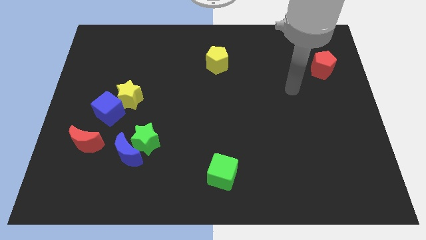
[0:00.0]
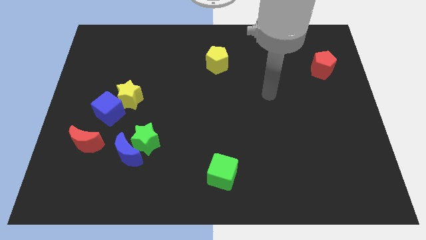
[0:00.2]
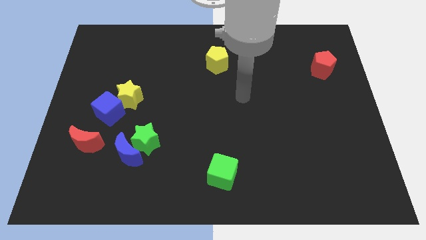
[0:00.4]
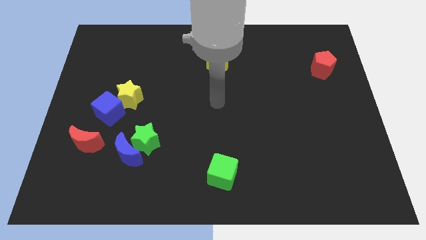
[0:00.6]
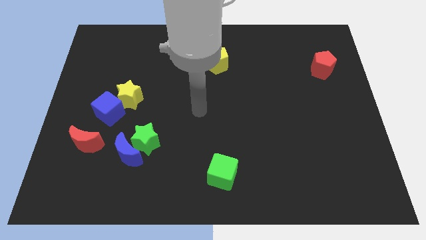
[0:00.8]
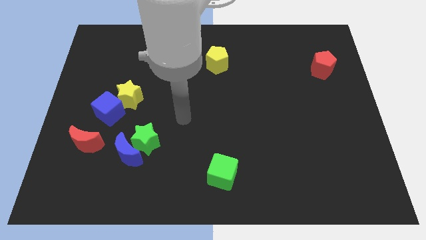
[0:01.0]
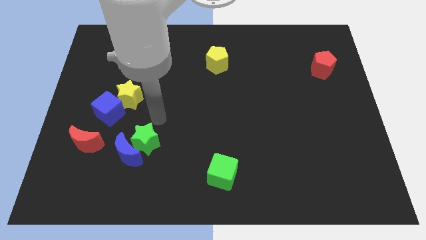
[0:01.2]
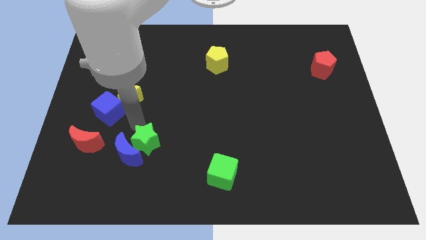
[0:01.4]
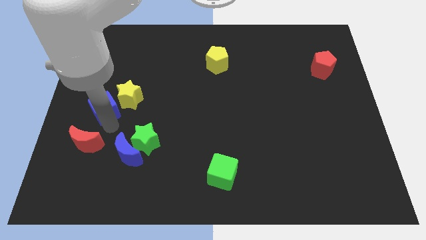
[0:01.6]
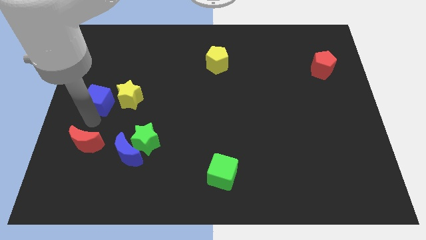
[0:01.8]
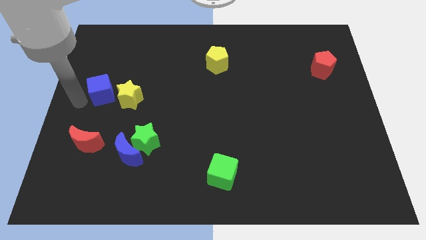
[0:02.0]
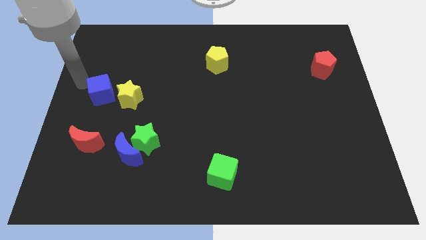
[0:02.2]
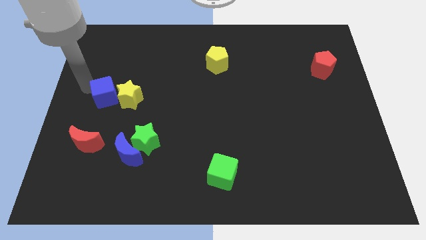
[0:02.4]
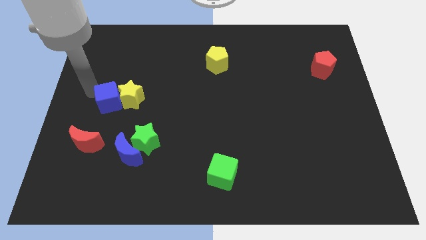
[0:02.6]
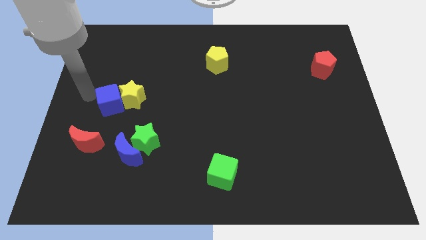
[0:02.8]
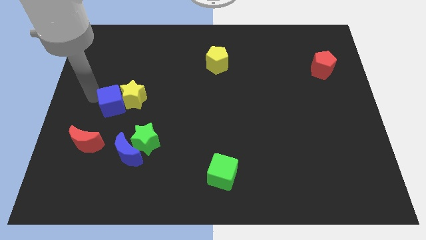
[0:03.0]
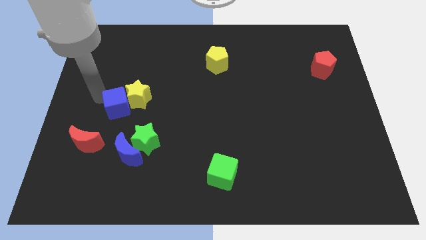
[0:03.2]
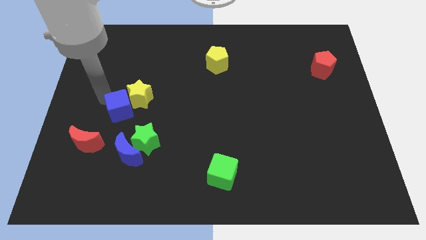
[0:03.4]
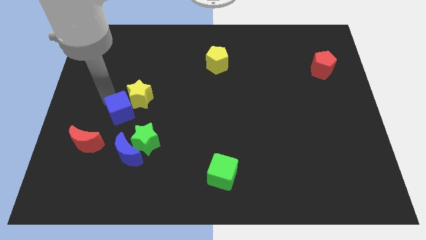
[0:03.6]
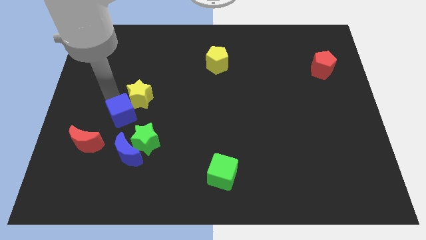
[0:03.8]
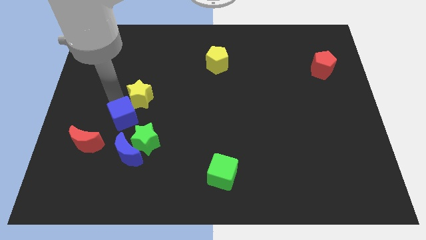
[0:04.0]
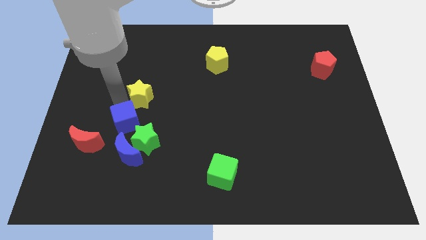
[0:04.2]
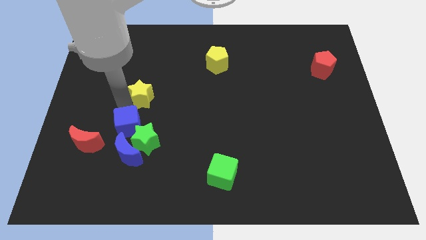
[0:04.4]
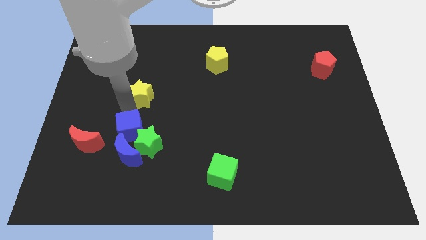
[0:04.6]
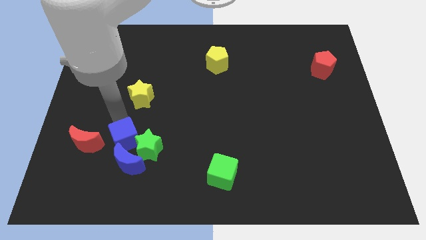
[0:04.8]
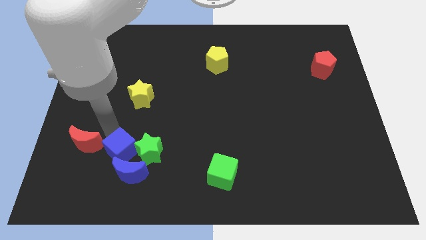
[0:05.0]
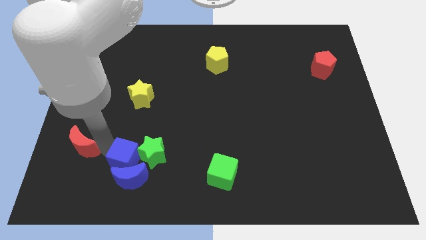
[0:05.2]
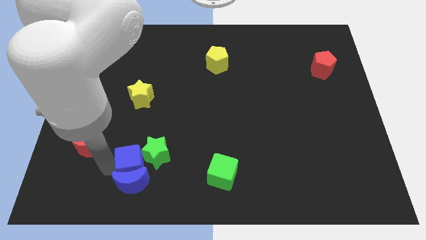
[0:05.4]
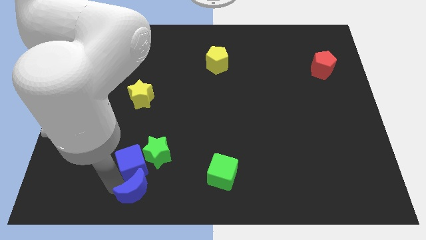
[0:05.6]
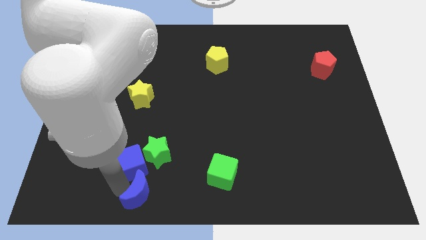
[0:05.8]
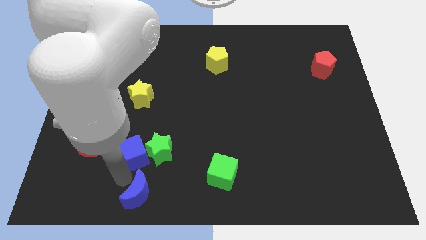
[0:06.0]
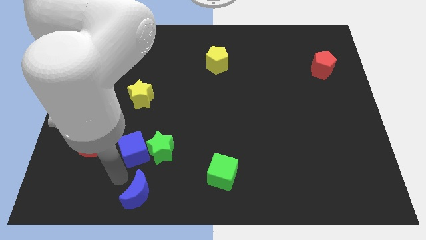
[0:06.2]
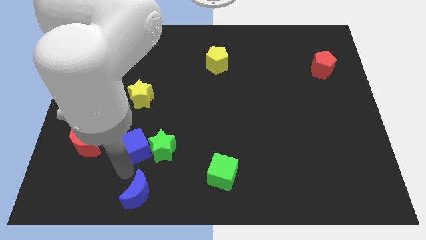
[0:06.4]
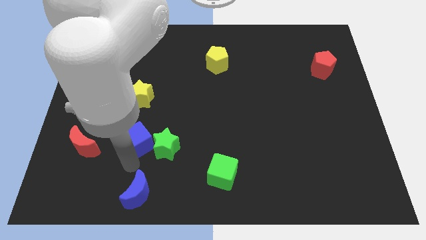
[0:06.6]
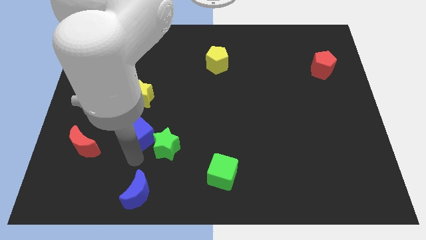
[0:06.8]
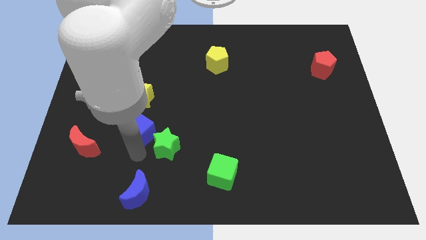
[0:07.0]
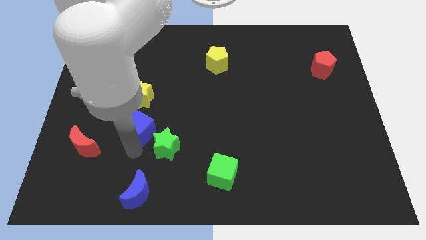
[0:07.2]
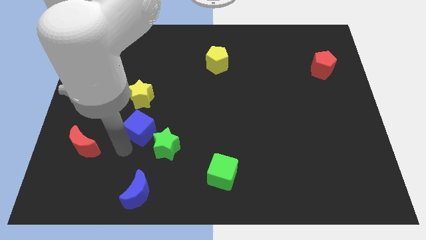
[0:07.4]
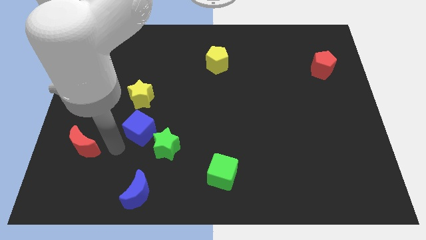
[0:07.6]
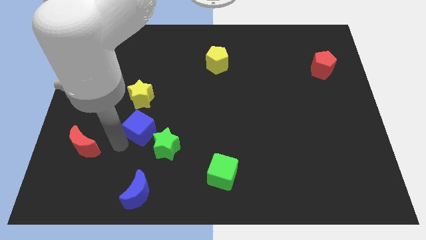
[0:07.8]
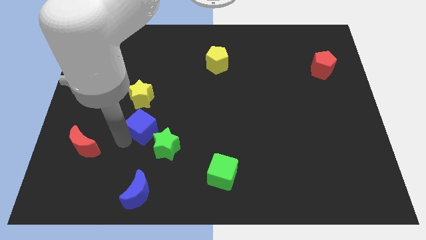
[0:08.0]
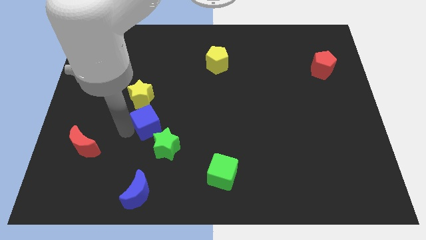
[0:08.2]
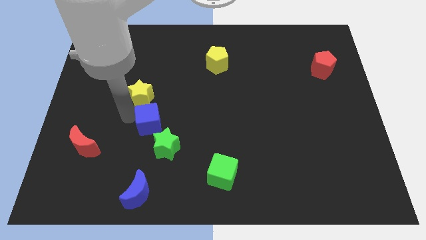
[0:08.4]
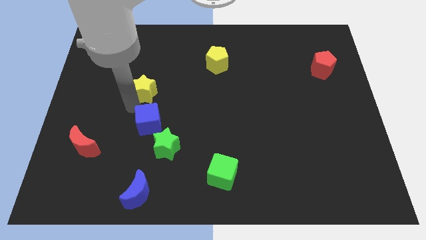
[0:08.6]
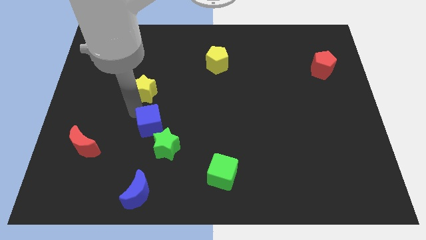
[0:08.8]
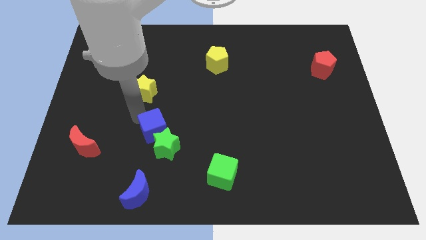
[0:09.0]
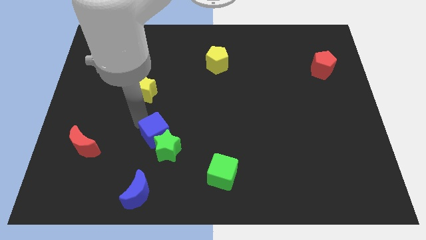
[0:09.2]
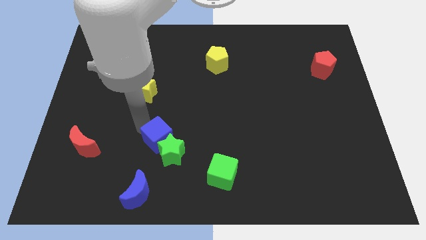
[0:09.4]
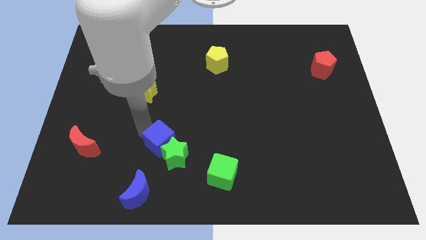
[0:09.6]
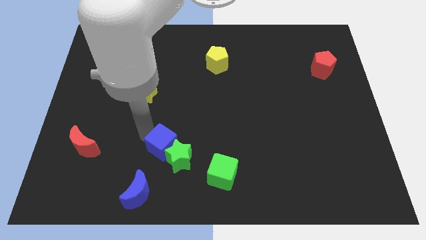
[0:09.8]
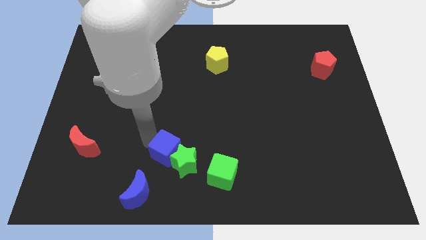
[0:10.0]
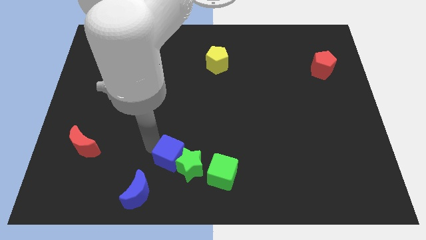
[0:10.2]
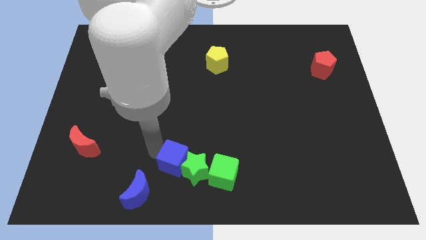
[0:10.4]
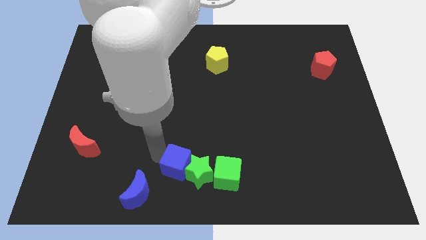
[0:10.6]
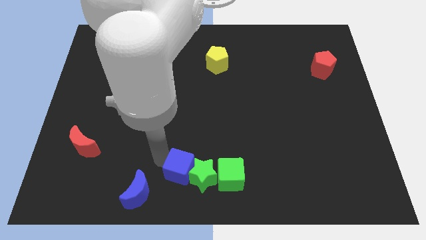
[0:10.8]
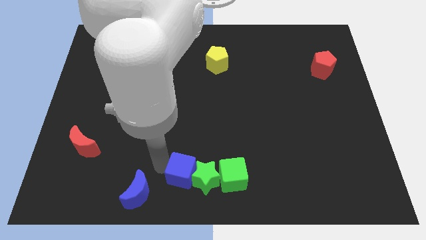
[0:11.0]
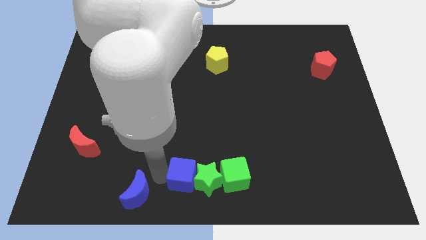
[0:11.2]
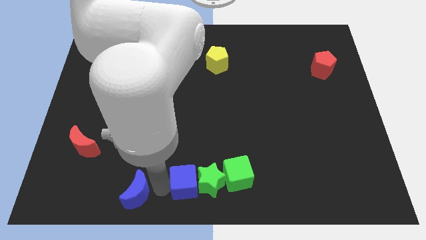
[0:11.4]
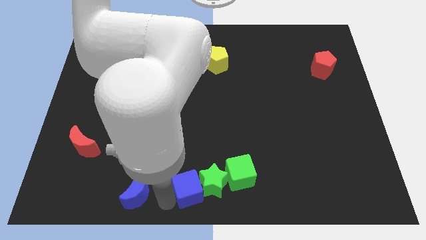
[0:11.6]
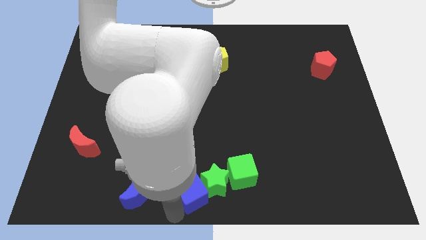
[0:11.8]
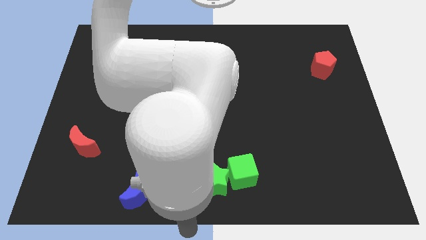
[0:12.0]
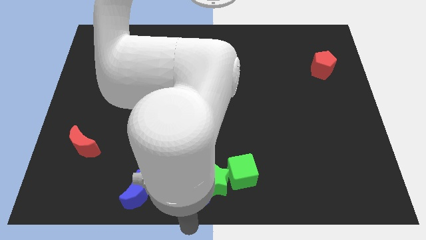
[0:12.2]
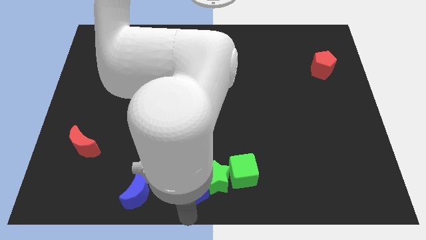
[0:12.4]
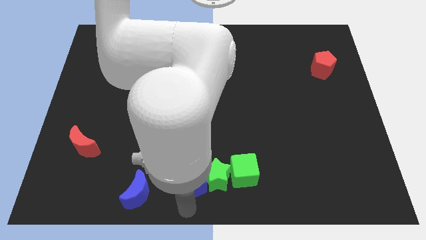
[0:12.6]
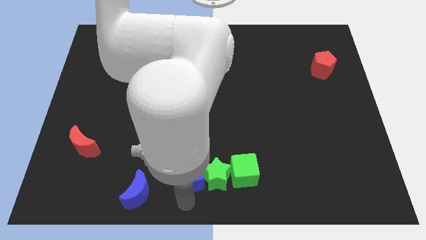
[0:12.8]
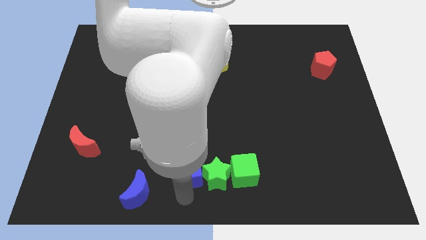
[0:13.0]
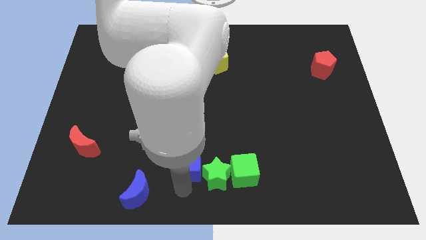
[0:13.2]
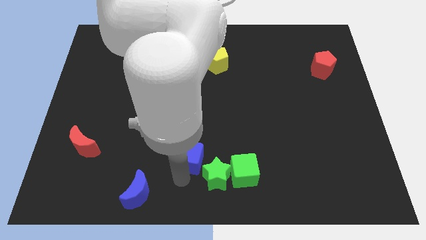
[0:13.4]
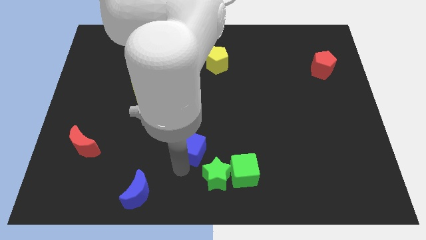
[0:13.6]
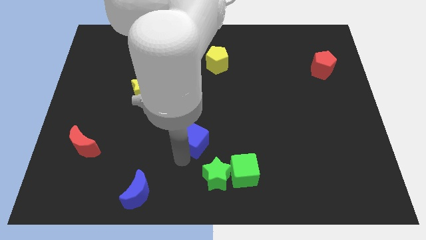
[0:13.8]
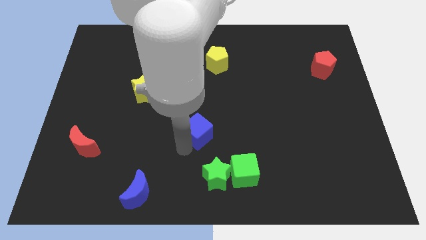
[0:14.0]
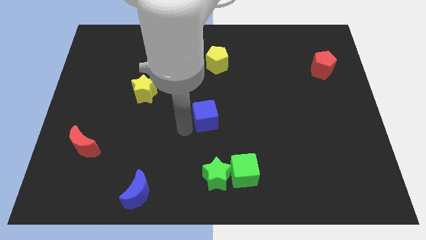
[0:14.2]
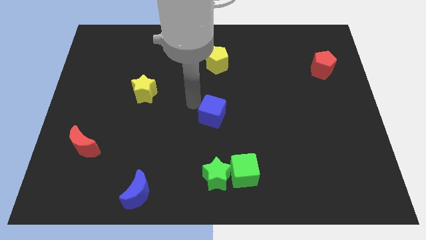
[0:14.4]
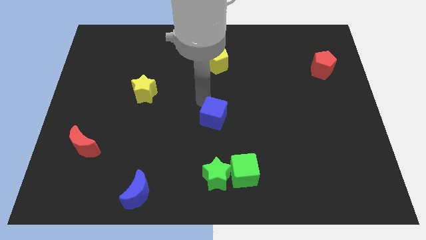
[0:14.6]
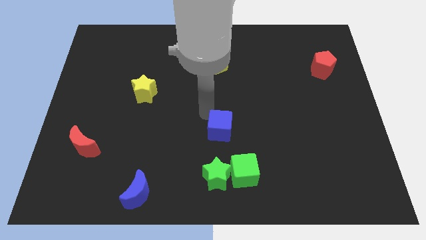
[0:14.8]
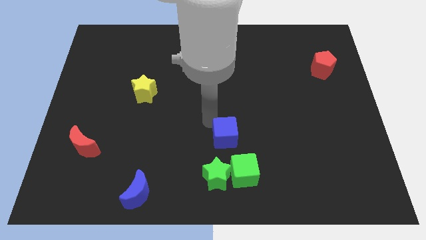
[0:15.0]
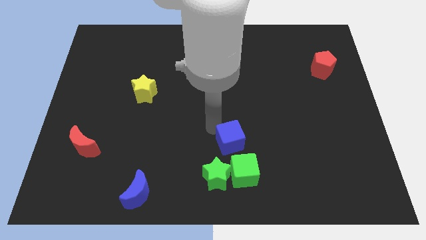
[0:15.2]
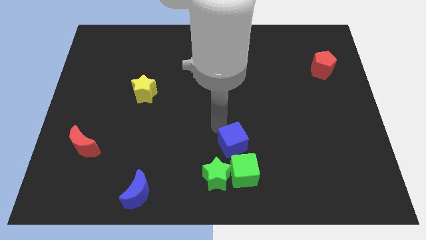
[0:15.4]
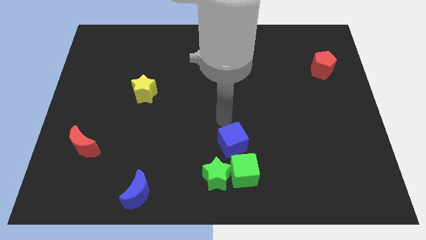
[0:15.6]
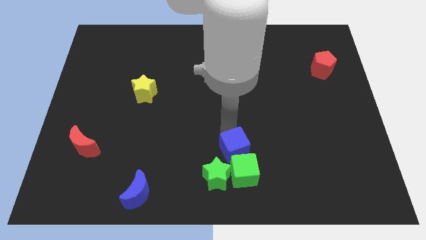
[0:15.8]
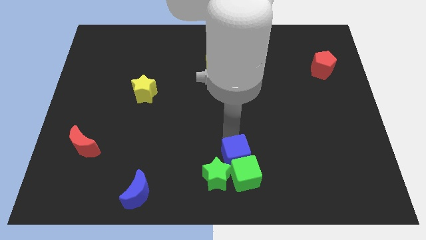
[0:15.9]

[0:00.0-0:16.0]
slide the blue cube next to the green cube
